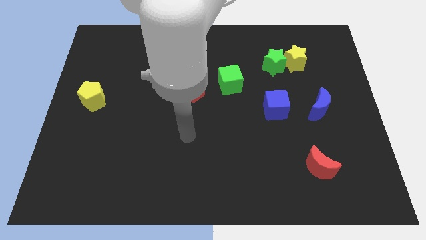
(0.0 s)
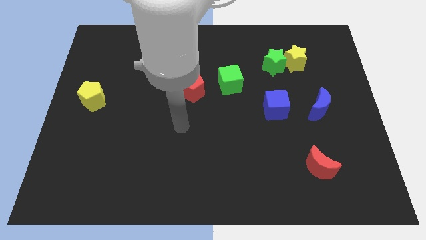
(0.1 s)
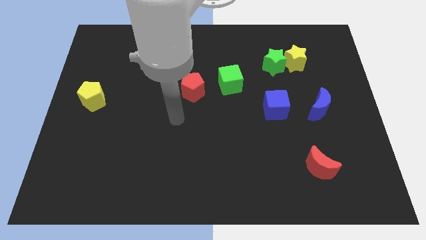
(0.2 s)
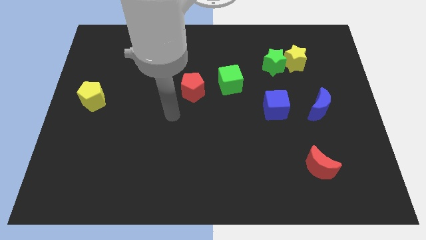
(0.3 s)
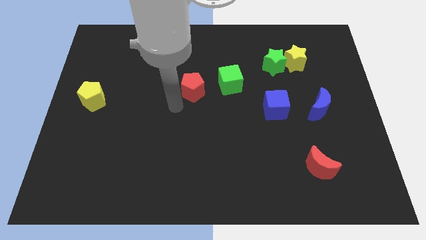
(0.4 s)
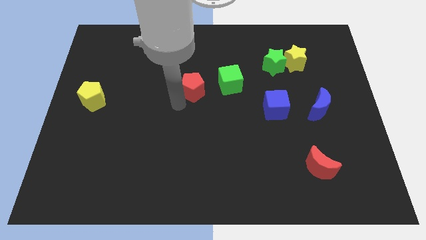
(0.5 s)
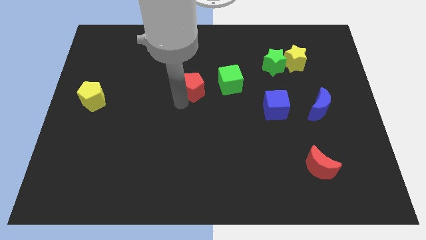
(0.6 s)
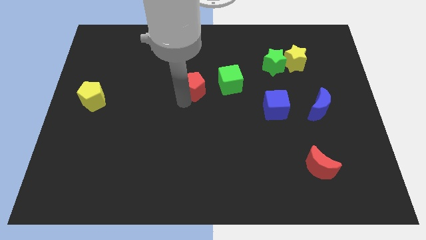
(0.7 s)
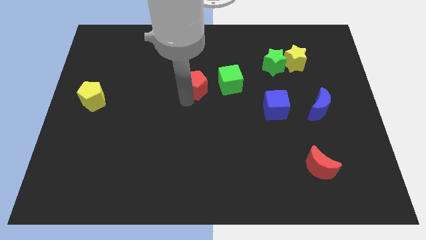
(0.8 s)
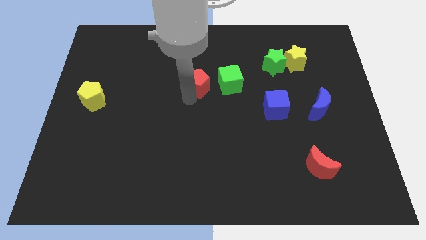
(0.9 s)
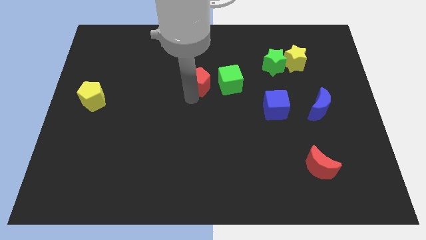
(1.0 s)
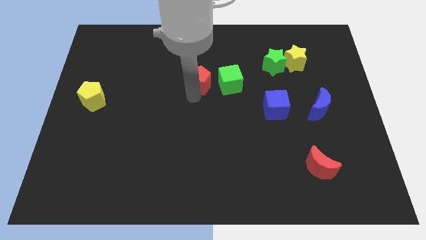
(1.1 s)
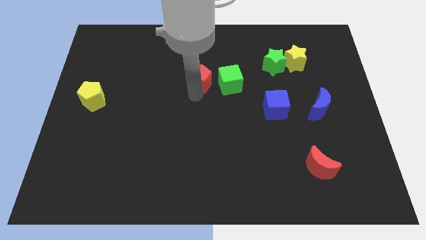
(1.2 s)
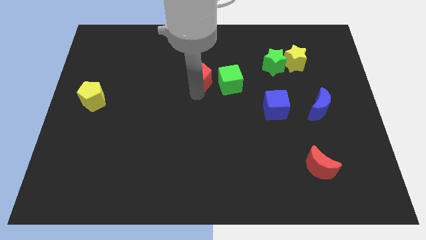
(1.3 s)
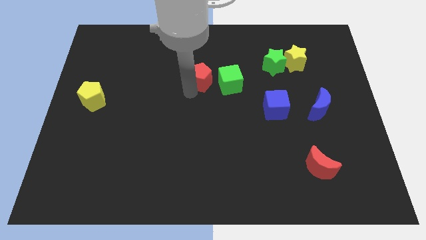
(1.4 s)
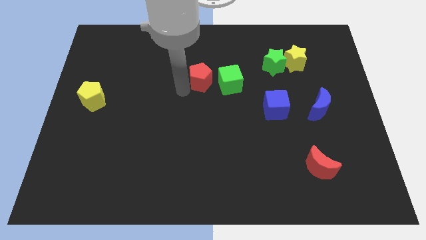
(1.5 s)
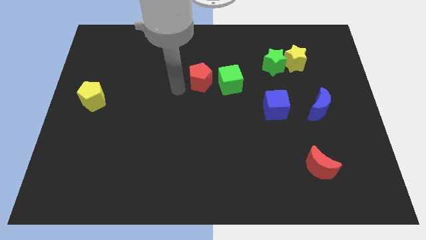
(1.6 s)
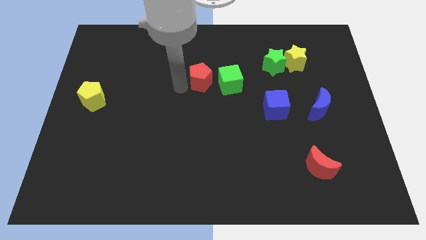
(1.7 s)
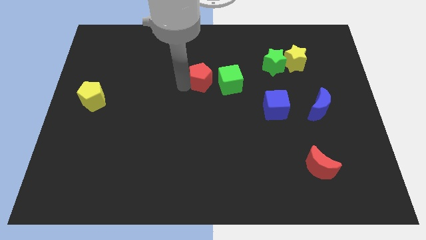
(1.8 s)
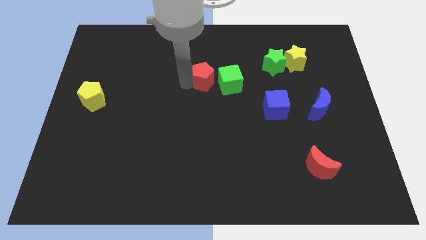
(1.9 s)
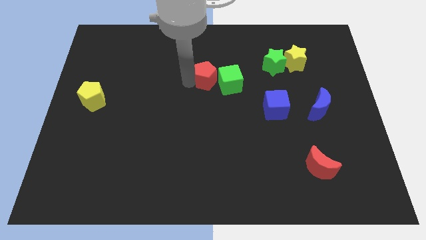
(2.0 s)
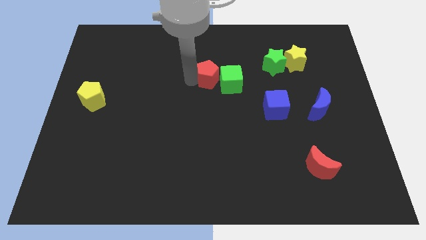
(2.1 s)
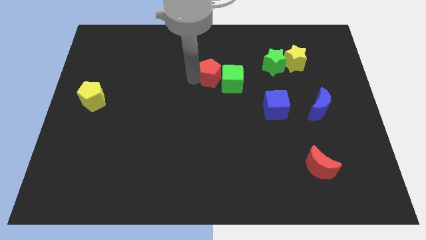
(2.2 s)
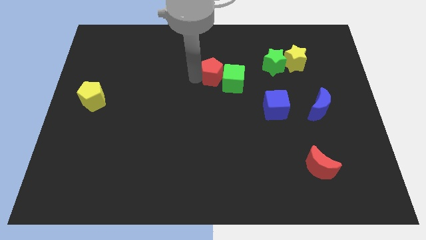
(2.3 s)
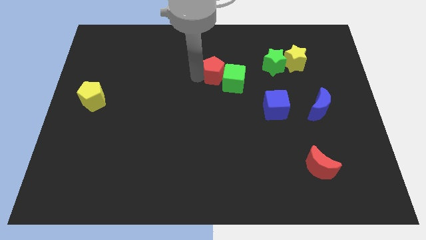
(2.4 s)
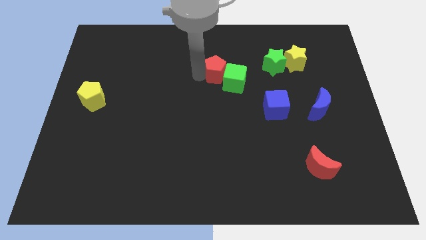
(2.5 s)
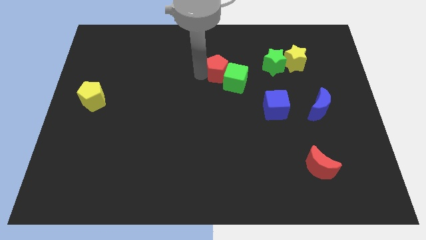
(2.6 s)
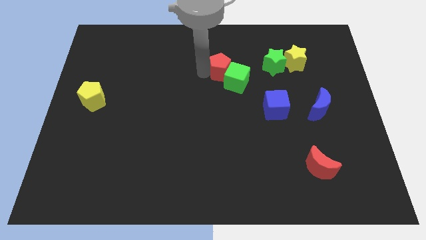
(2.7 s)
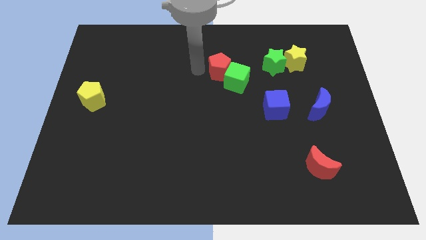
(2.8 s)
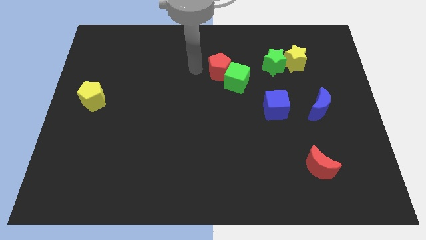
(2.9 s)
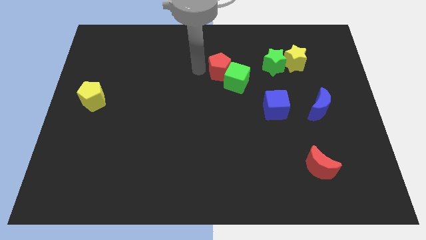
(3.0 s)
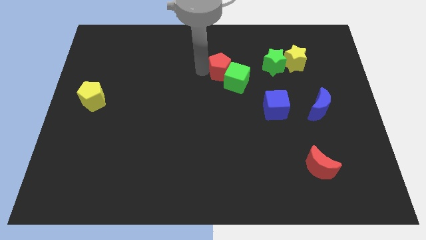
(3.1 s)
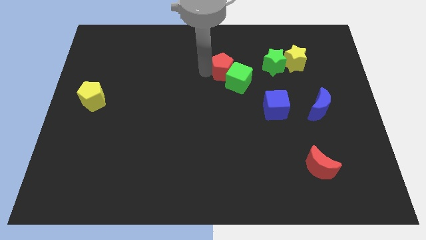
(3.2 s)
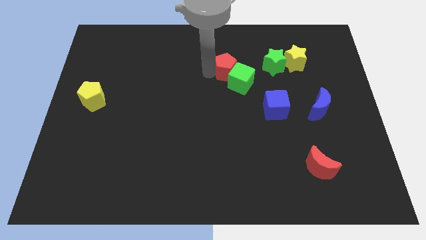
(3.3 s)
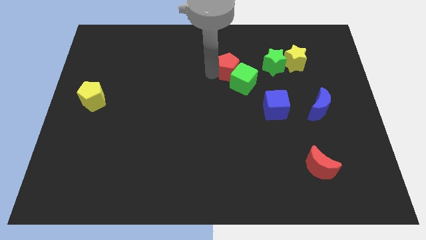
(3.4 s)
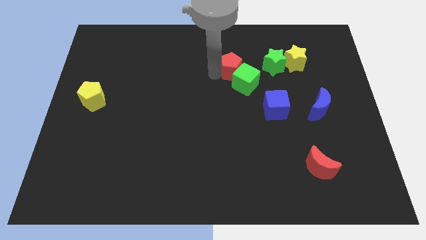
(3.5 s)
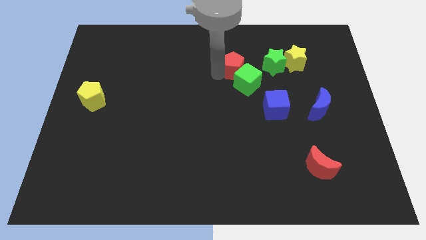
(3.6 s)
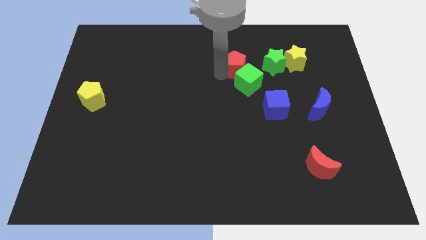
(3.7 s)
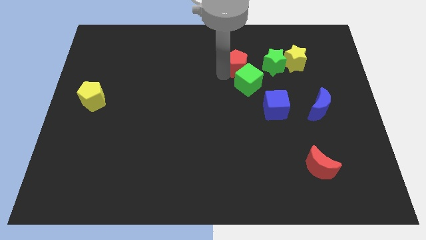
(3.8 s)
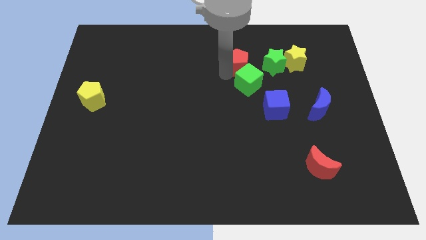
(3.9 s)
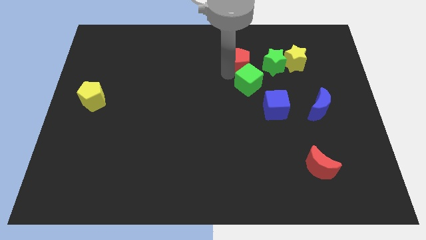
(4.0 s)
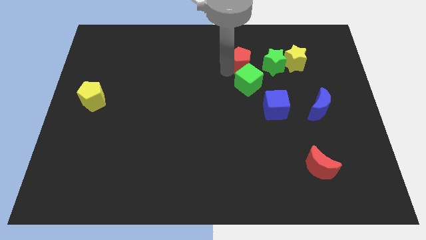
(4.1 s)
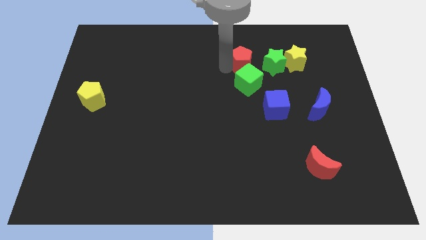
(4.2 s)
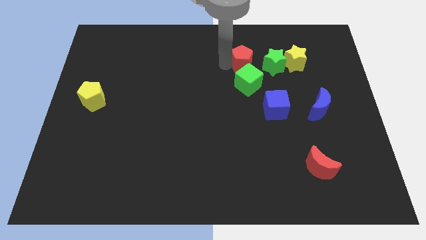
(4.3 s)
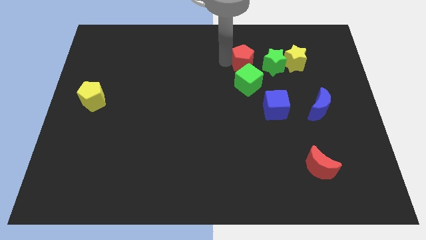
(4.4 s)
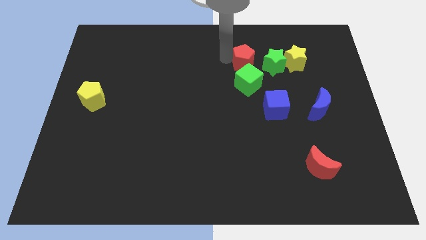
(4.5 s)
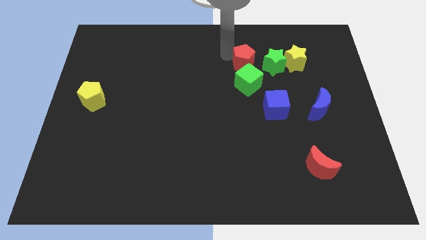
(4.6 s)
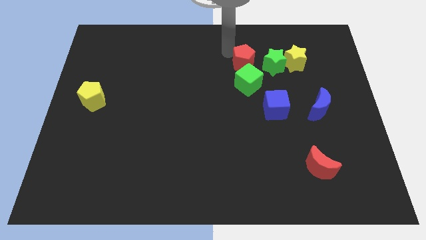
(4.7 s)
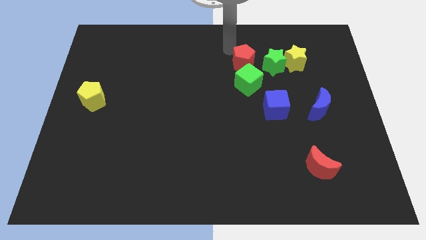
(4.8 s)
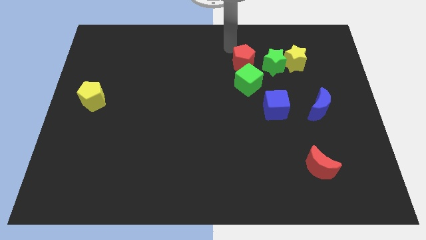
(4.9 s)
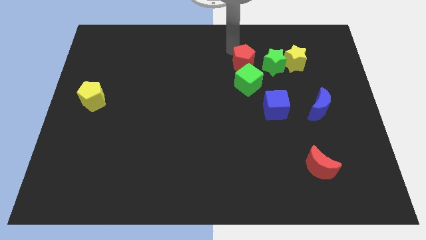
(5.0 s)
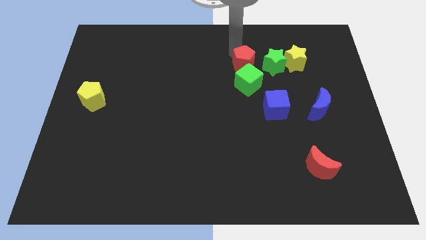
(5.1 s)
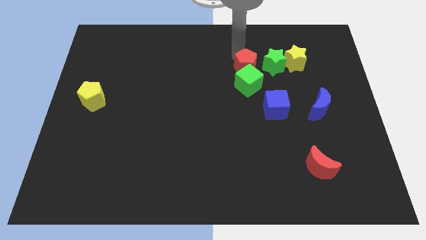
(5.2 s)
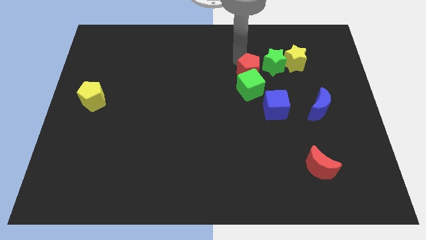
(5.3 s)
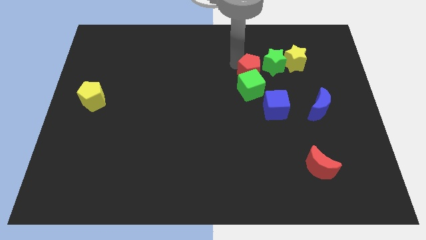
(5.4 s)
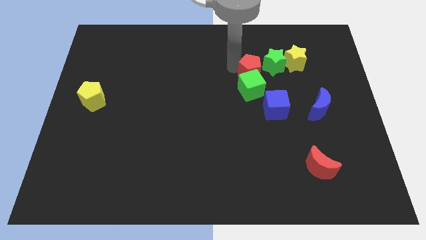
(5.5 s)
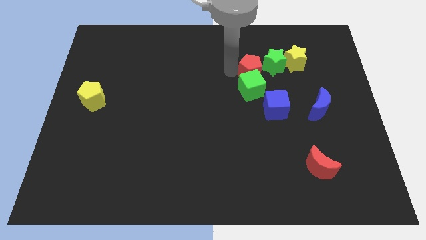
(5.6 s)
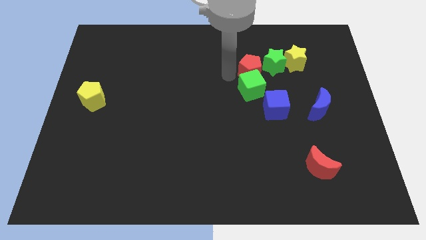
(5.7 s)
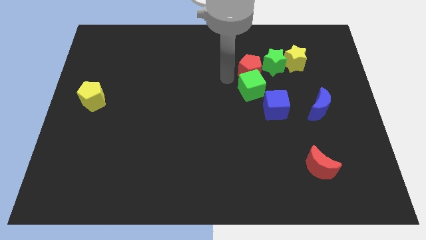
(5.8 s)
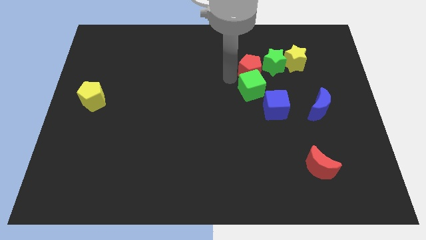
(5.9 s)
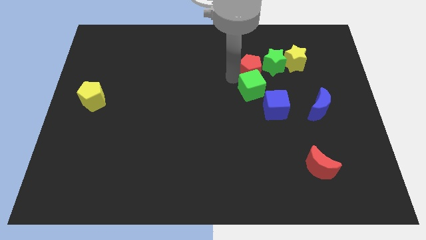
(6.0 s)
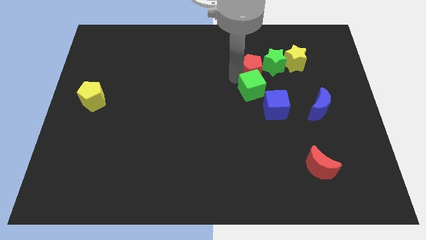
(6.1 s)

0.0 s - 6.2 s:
push the red pentagon to the green star

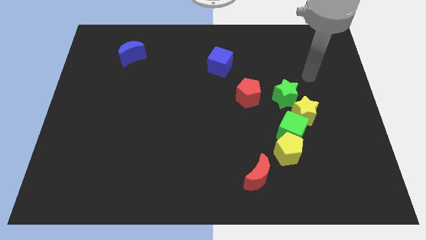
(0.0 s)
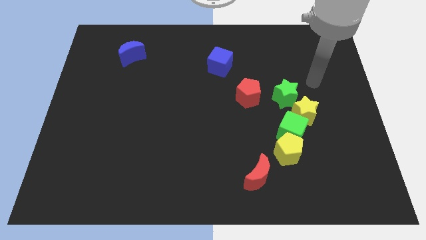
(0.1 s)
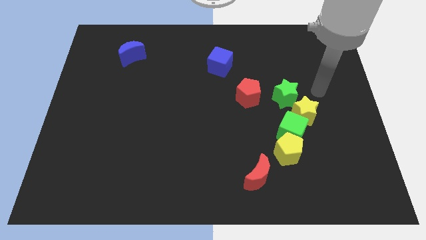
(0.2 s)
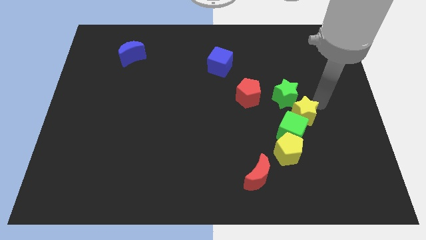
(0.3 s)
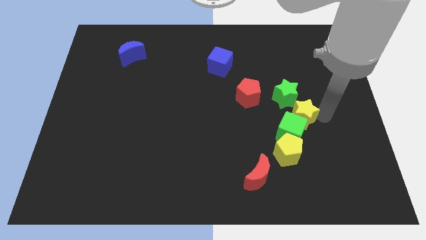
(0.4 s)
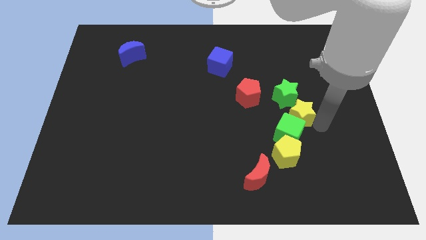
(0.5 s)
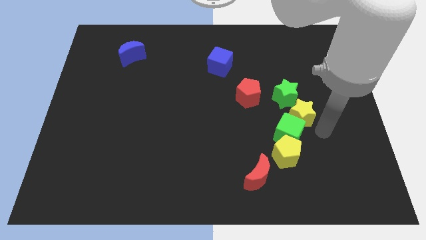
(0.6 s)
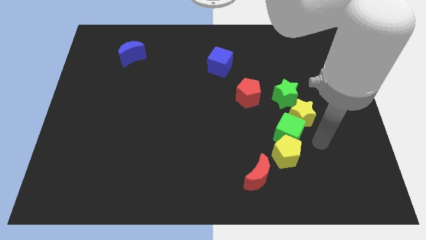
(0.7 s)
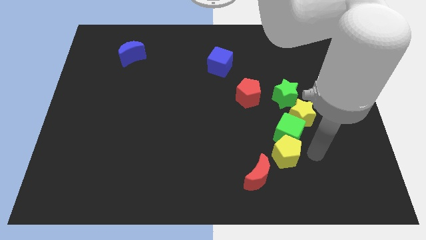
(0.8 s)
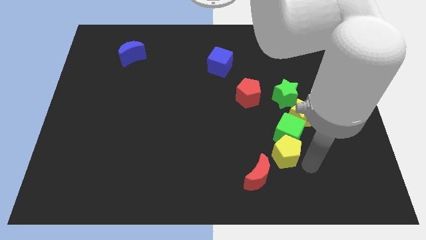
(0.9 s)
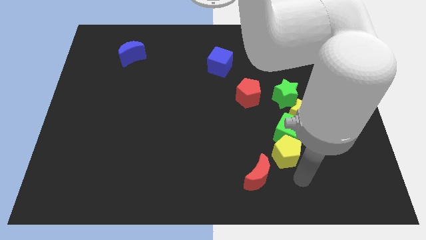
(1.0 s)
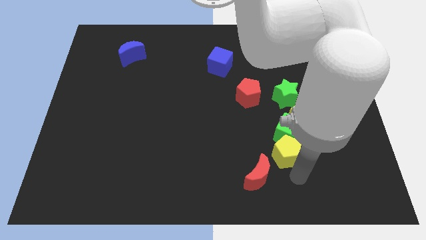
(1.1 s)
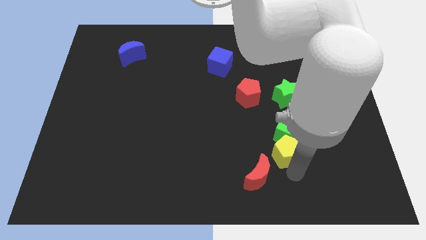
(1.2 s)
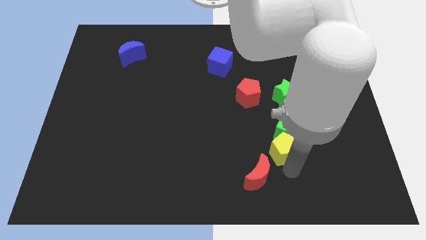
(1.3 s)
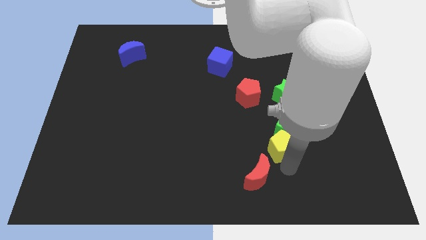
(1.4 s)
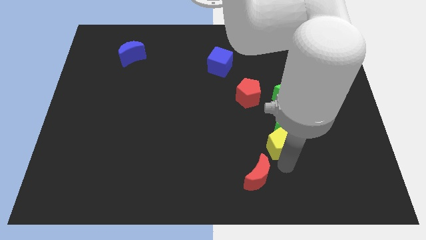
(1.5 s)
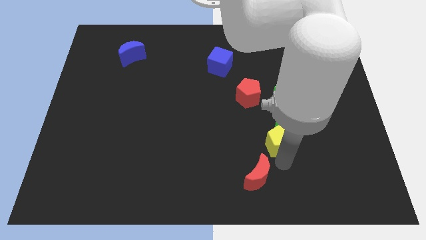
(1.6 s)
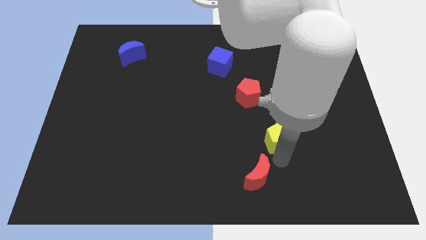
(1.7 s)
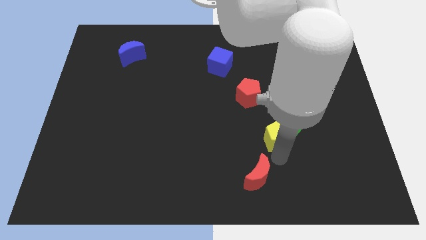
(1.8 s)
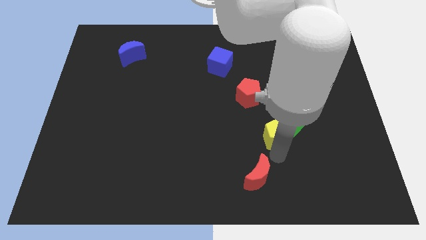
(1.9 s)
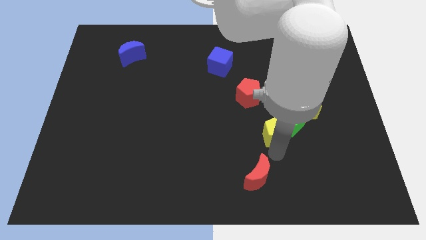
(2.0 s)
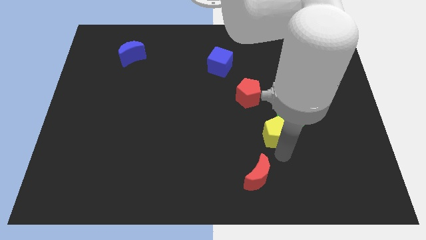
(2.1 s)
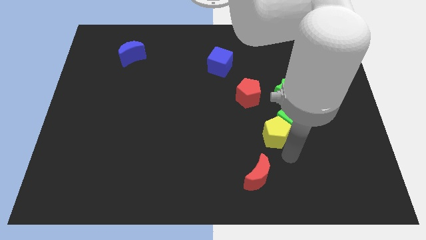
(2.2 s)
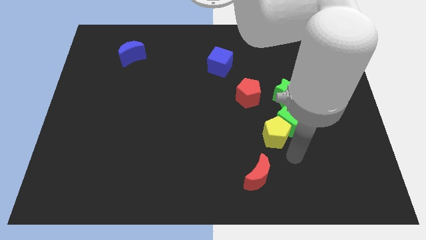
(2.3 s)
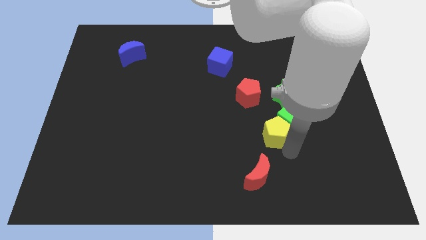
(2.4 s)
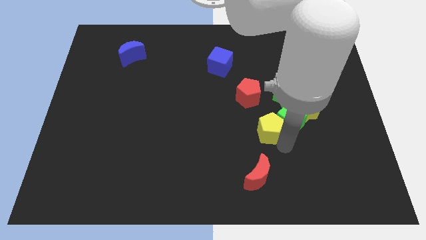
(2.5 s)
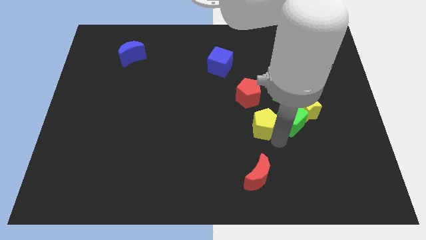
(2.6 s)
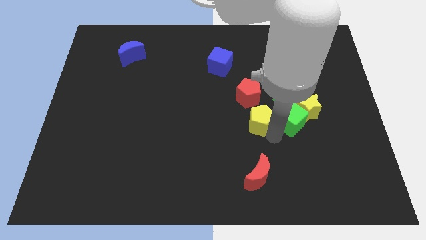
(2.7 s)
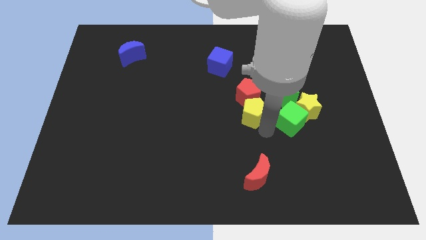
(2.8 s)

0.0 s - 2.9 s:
put the yellow pentagon towards the red pentagon
